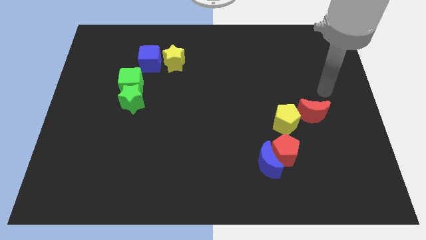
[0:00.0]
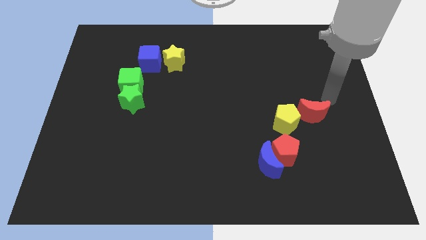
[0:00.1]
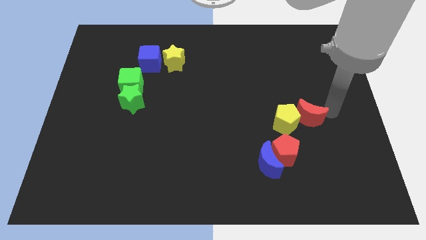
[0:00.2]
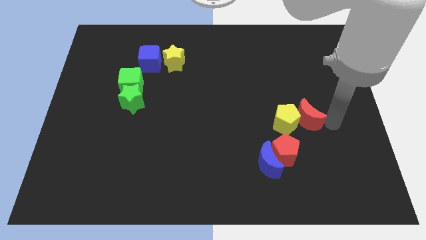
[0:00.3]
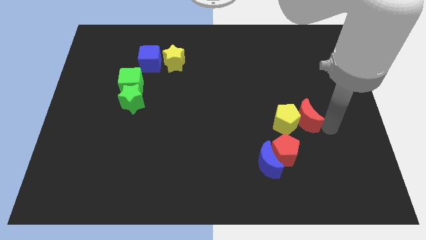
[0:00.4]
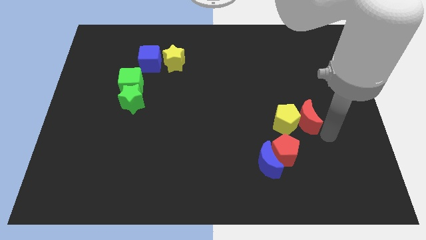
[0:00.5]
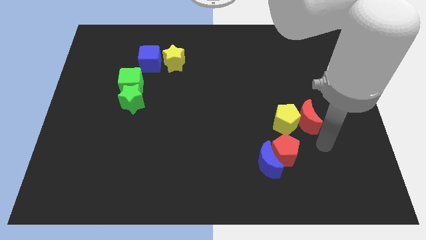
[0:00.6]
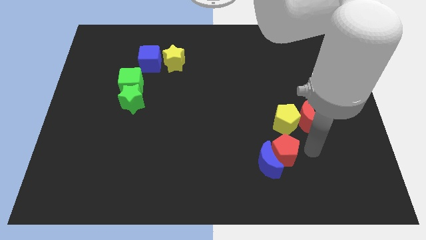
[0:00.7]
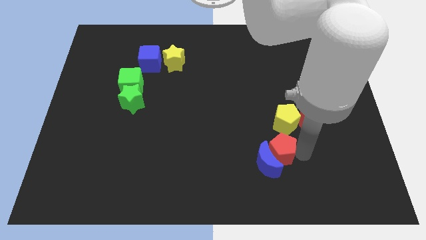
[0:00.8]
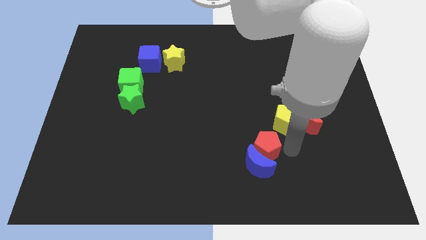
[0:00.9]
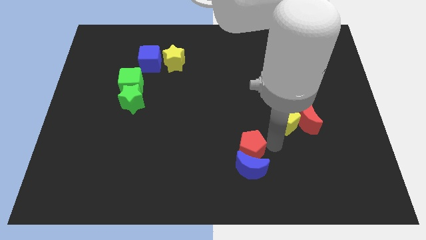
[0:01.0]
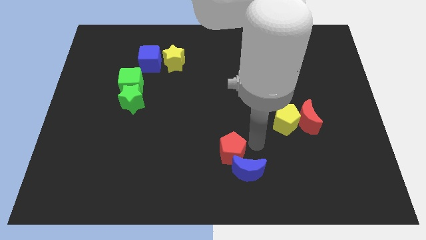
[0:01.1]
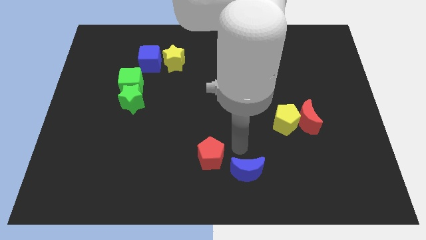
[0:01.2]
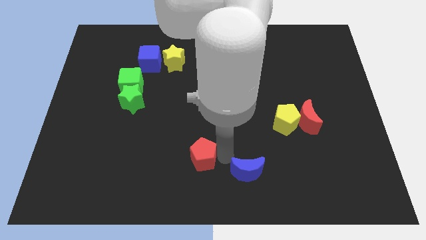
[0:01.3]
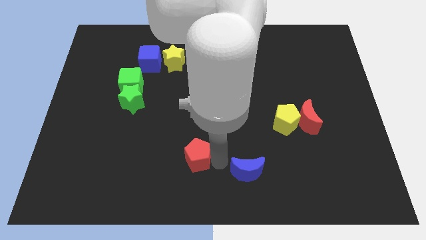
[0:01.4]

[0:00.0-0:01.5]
move the blue moon away from the red pentagon

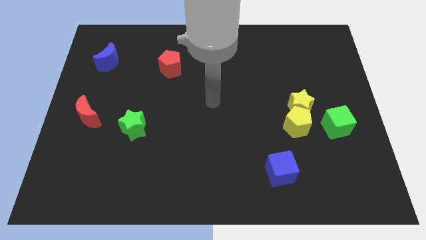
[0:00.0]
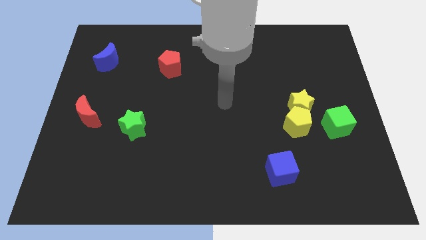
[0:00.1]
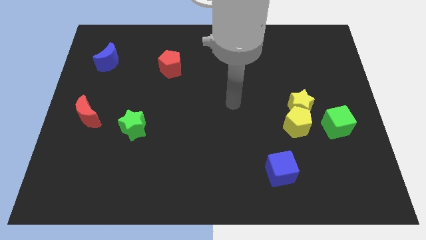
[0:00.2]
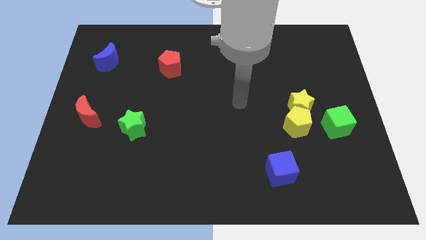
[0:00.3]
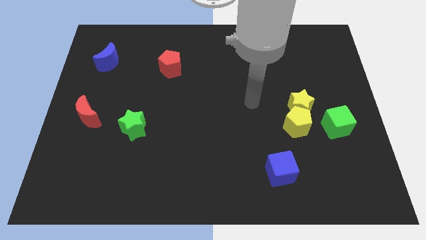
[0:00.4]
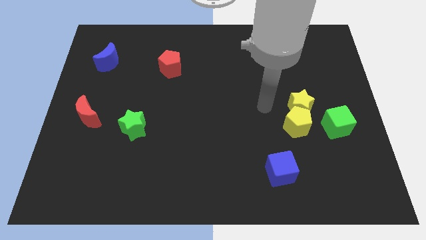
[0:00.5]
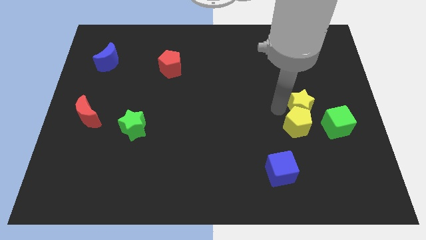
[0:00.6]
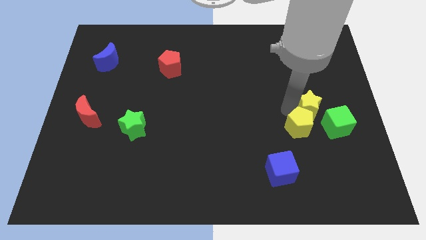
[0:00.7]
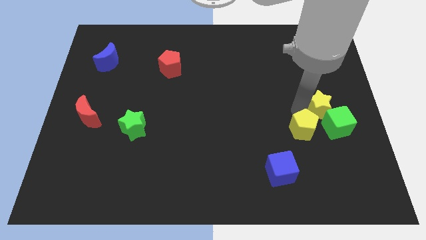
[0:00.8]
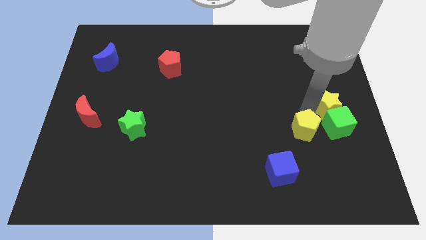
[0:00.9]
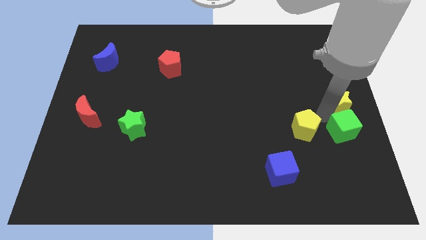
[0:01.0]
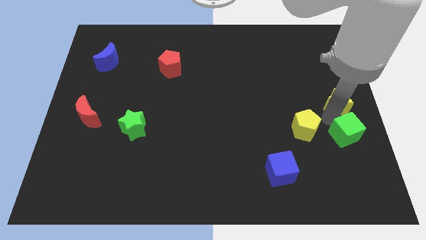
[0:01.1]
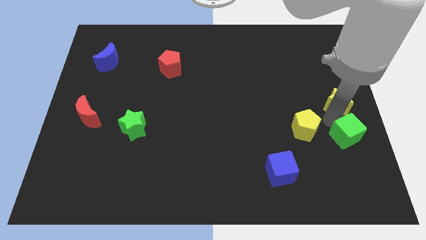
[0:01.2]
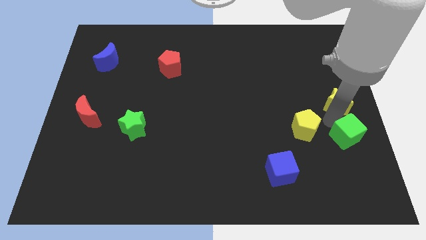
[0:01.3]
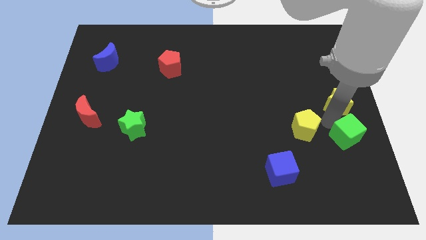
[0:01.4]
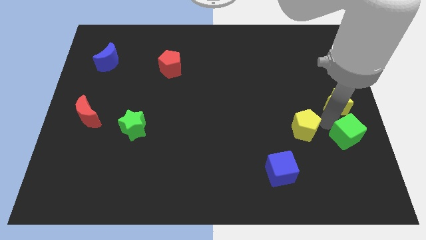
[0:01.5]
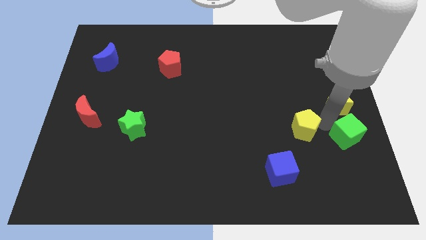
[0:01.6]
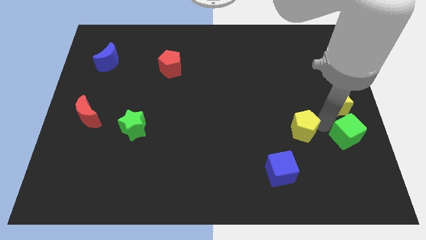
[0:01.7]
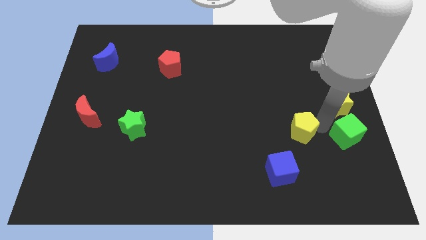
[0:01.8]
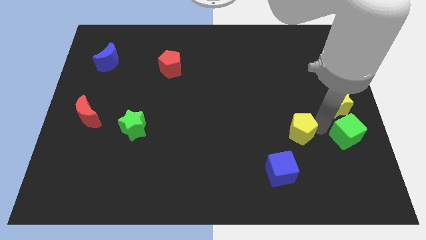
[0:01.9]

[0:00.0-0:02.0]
pull the yellow pentagon apart from the yellow star and green cube

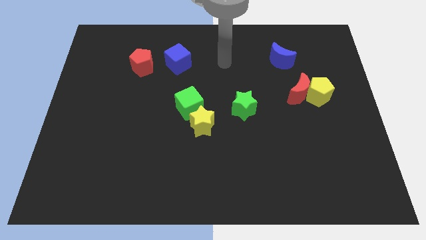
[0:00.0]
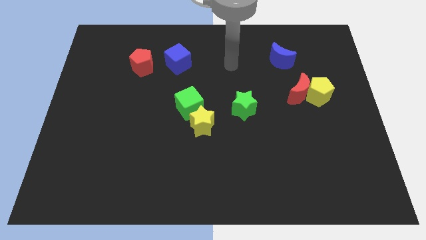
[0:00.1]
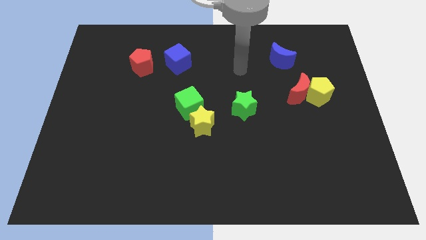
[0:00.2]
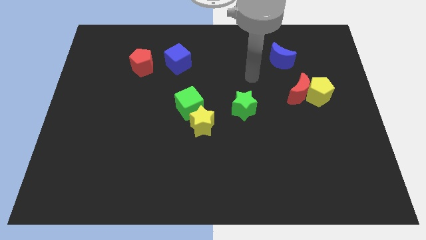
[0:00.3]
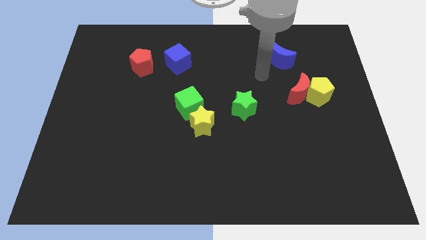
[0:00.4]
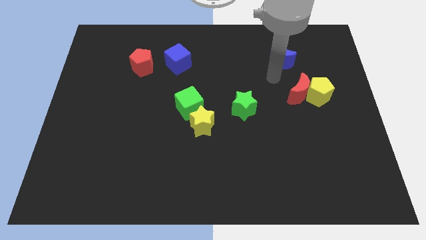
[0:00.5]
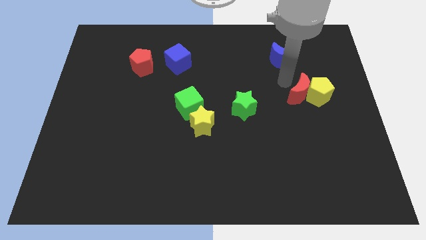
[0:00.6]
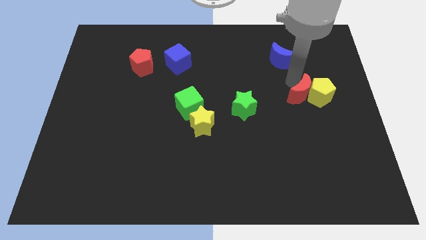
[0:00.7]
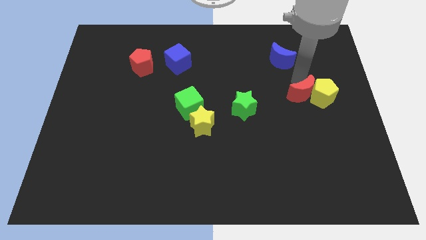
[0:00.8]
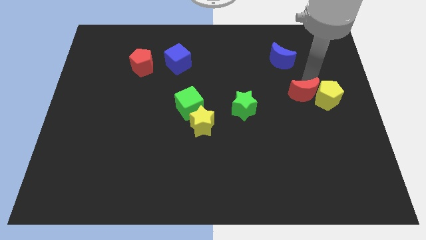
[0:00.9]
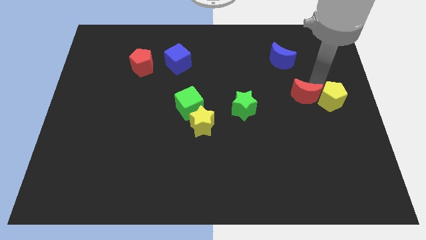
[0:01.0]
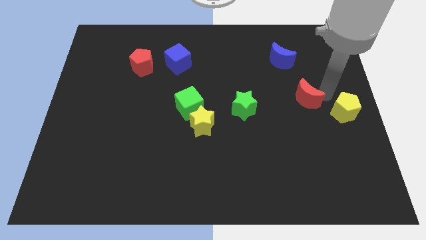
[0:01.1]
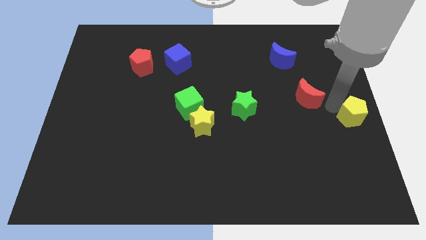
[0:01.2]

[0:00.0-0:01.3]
separate the red moon from the yellow pentagon

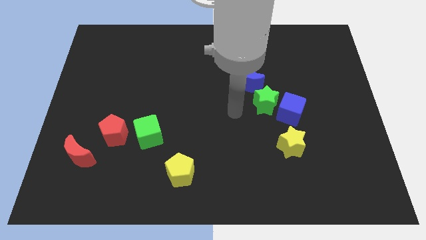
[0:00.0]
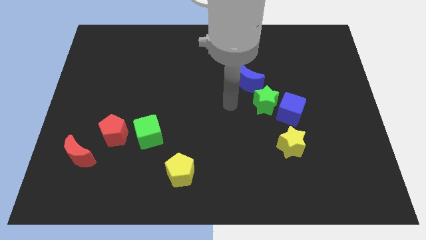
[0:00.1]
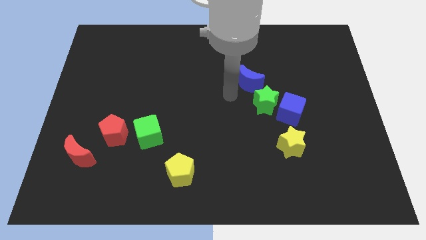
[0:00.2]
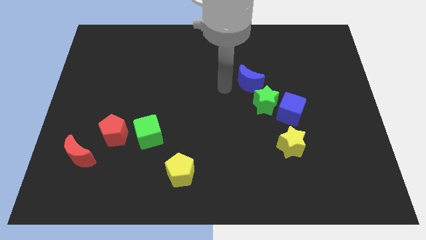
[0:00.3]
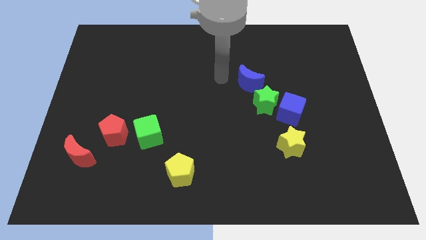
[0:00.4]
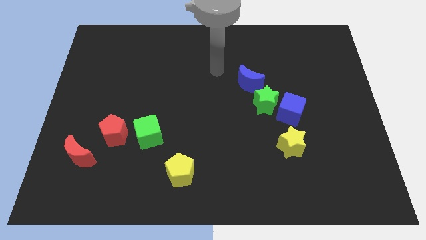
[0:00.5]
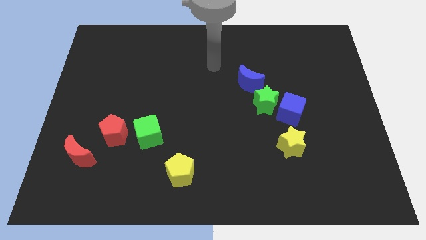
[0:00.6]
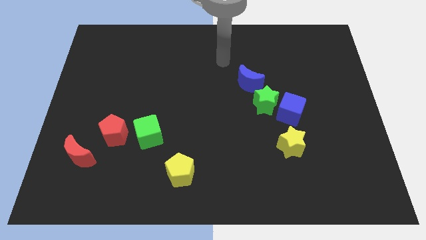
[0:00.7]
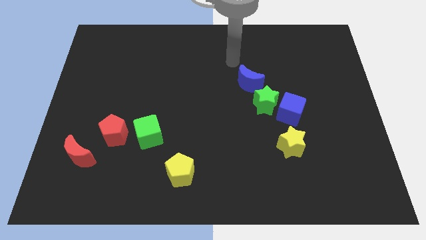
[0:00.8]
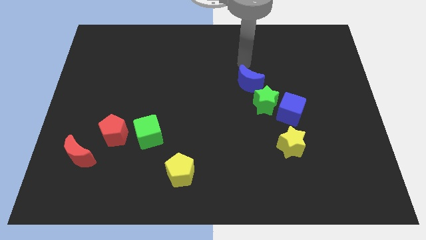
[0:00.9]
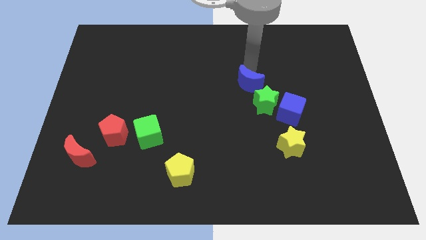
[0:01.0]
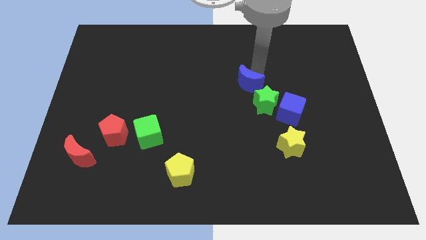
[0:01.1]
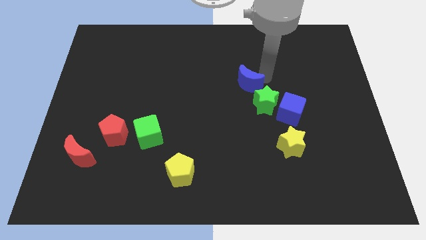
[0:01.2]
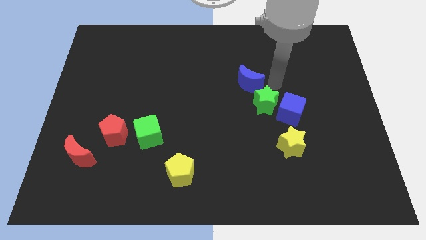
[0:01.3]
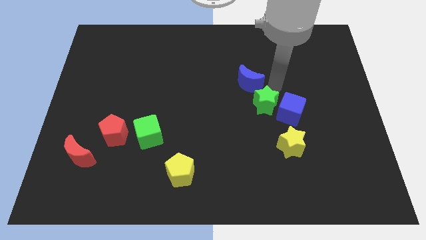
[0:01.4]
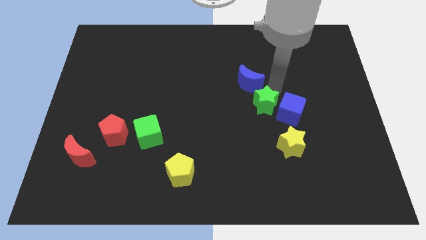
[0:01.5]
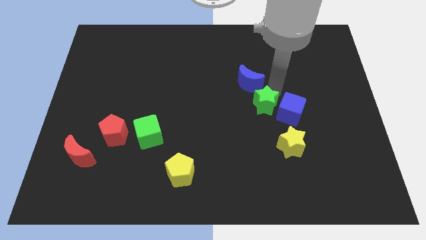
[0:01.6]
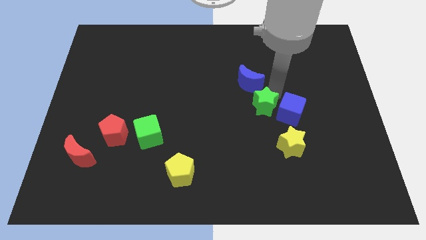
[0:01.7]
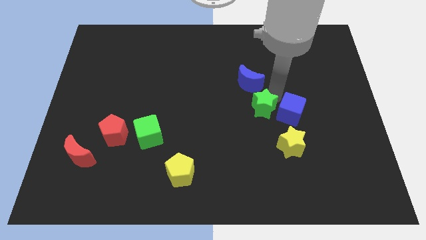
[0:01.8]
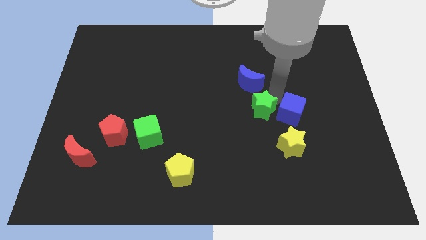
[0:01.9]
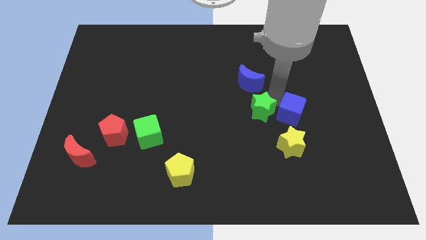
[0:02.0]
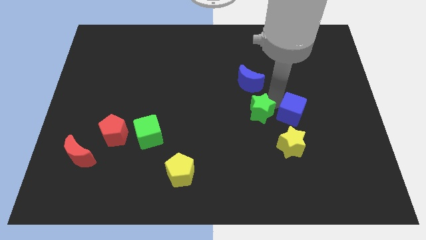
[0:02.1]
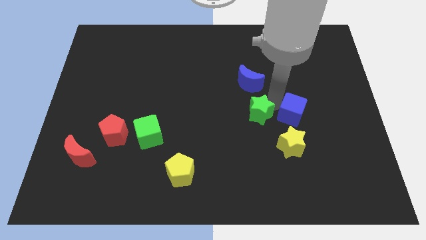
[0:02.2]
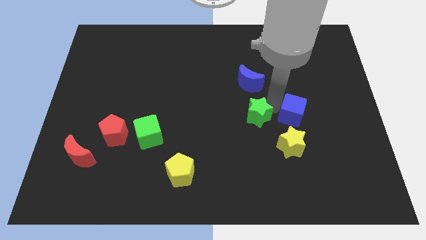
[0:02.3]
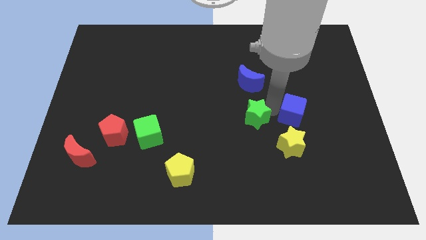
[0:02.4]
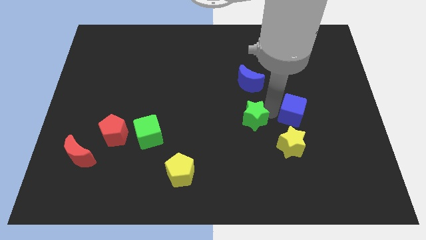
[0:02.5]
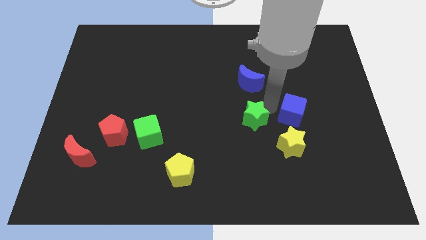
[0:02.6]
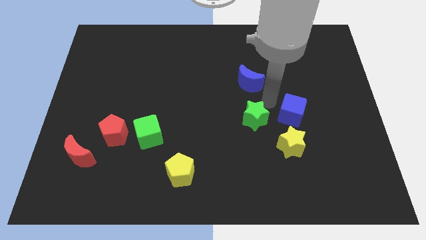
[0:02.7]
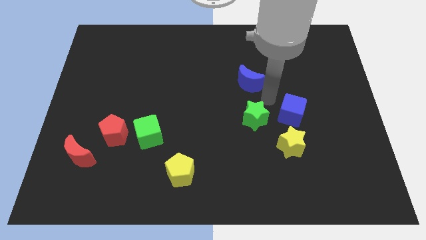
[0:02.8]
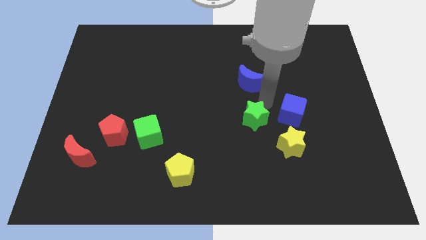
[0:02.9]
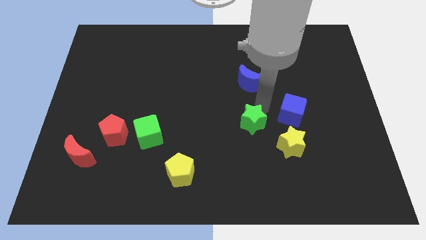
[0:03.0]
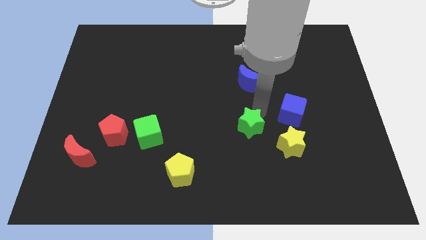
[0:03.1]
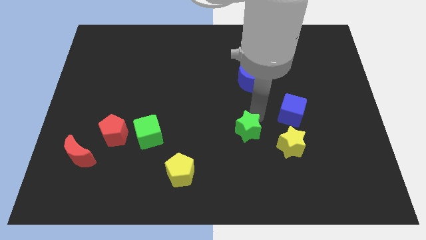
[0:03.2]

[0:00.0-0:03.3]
move the green star away from the blue cube and blue moon

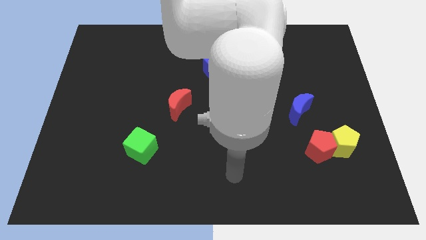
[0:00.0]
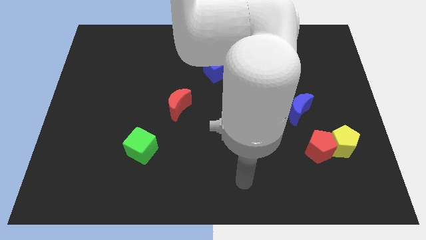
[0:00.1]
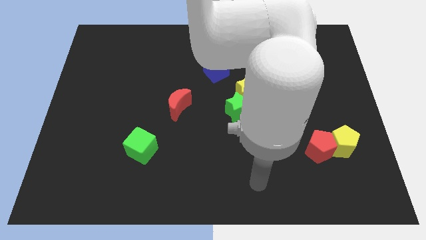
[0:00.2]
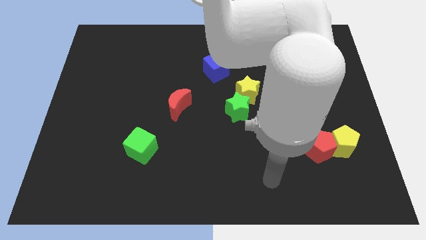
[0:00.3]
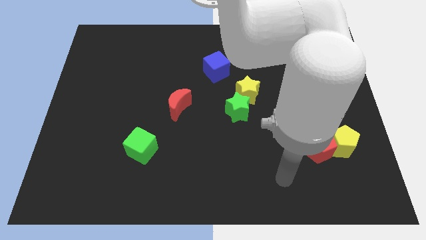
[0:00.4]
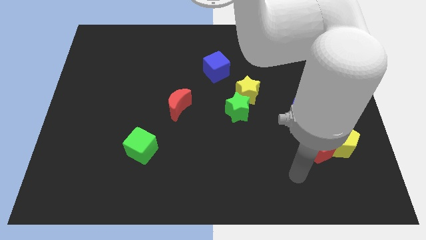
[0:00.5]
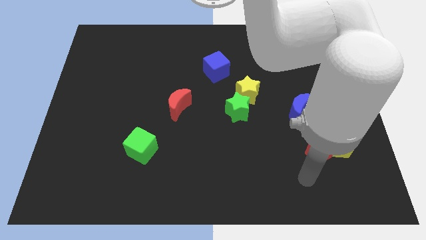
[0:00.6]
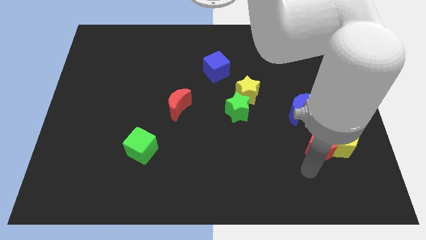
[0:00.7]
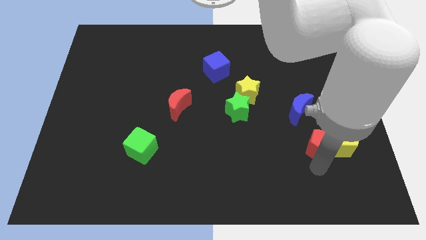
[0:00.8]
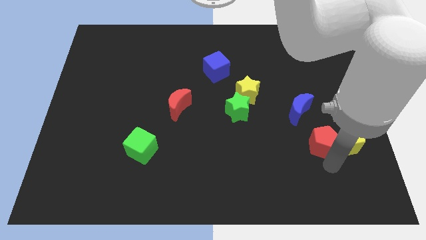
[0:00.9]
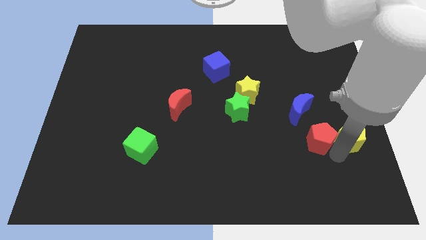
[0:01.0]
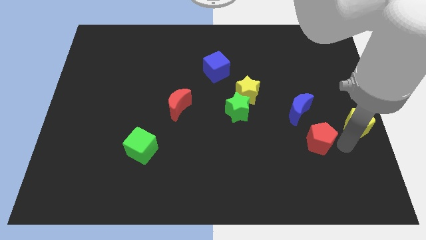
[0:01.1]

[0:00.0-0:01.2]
separate the red pentagon from the yellow pentagon
